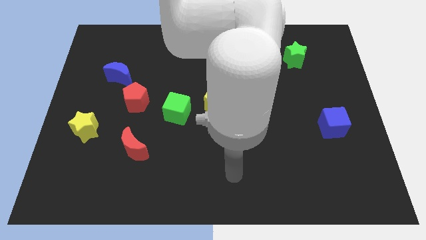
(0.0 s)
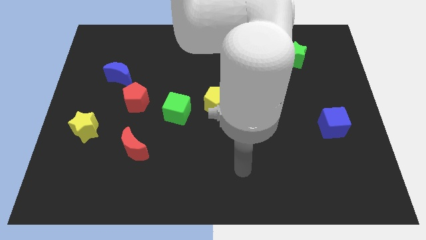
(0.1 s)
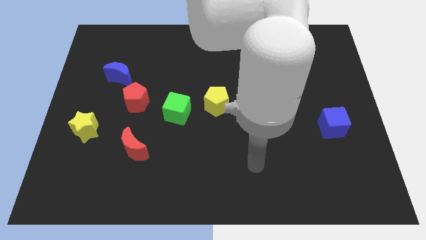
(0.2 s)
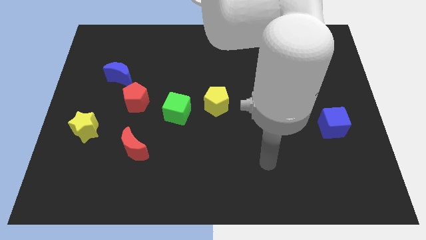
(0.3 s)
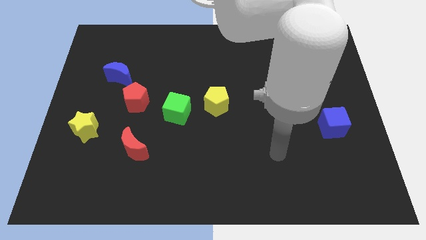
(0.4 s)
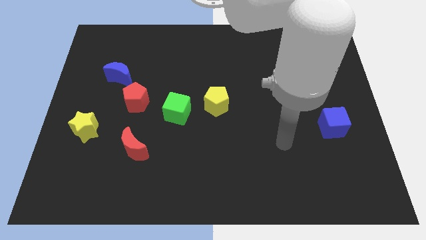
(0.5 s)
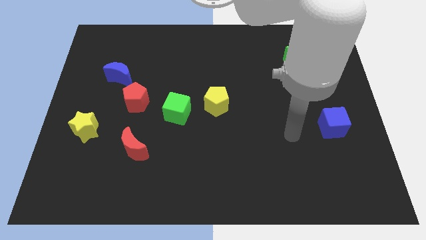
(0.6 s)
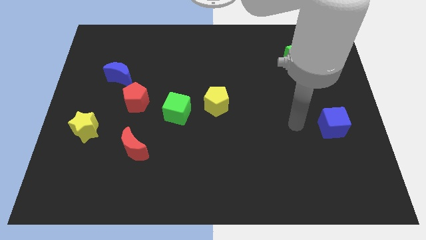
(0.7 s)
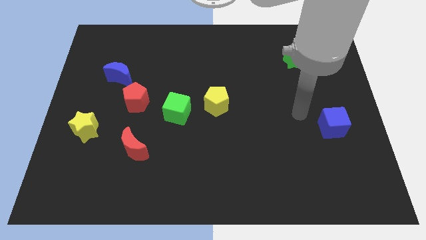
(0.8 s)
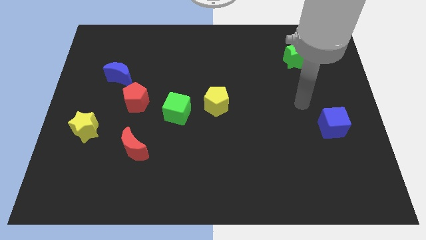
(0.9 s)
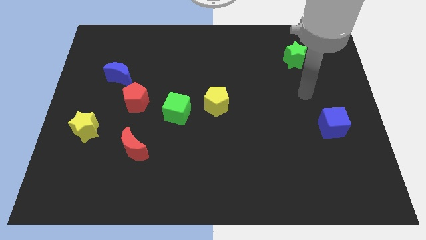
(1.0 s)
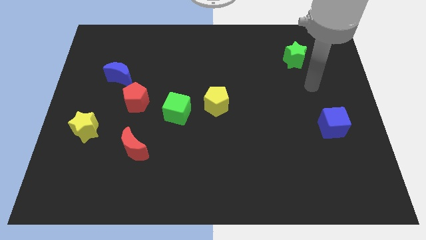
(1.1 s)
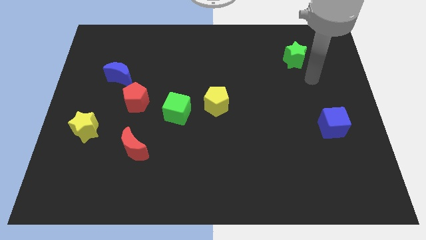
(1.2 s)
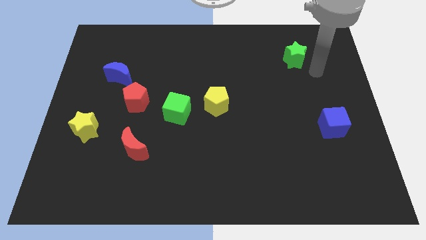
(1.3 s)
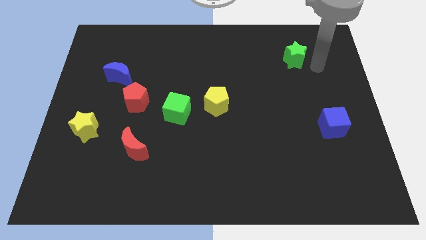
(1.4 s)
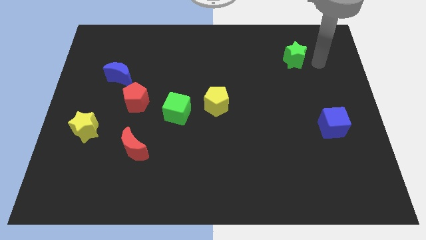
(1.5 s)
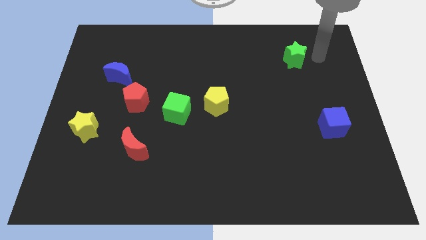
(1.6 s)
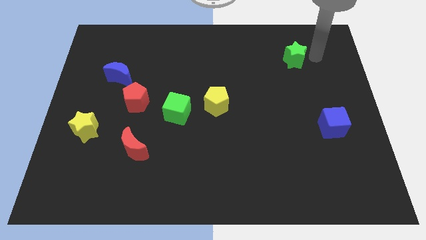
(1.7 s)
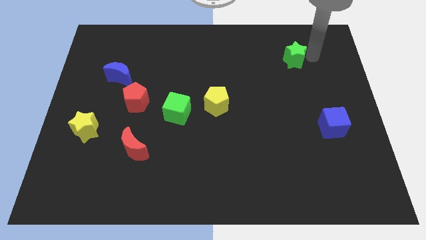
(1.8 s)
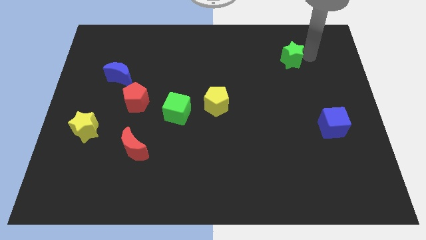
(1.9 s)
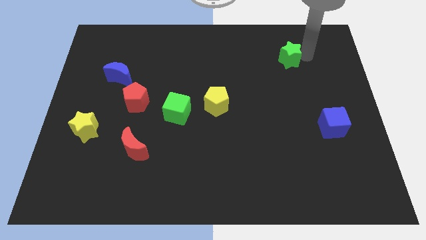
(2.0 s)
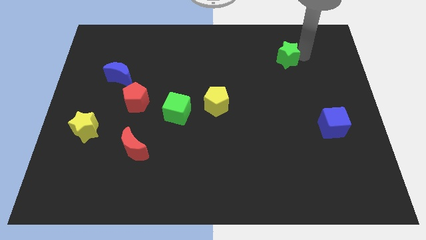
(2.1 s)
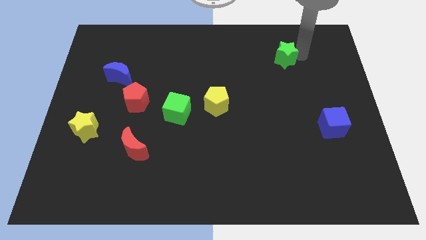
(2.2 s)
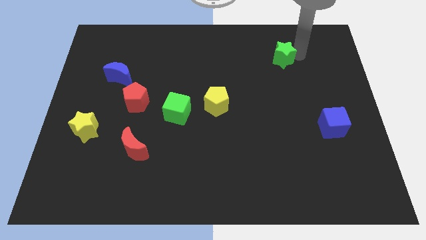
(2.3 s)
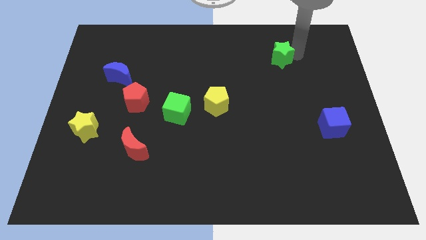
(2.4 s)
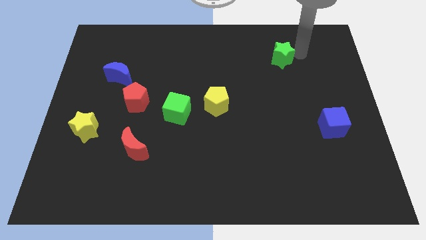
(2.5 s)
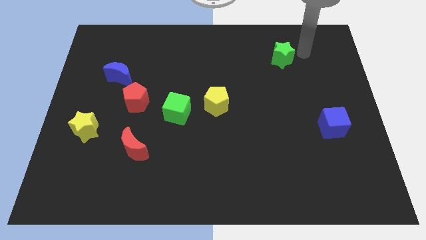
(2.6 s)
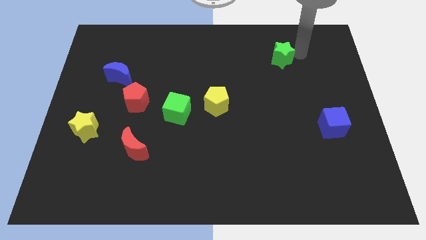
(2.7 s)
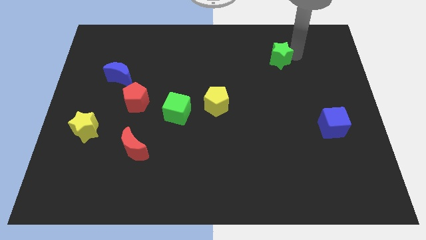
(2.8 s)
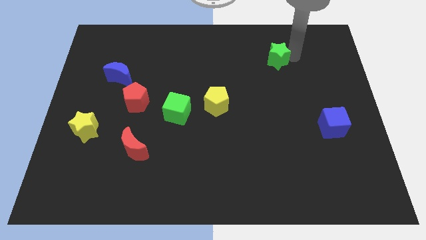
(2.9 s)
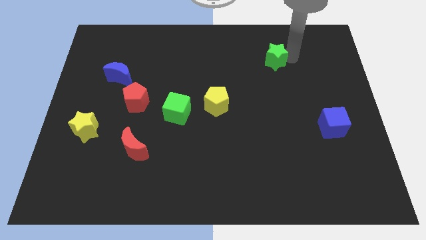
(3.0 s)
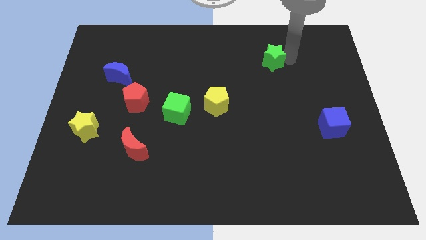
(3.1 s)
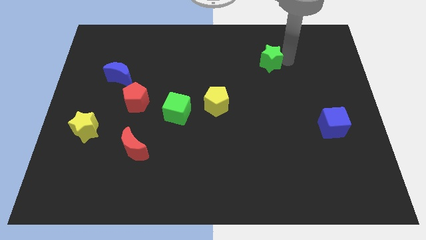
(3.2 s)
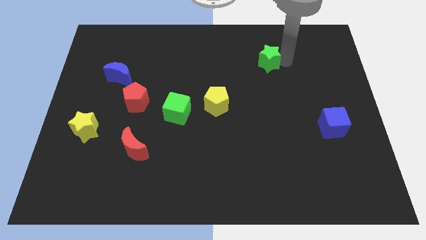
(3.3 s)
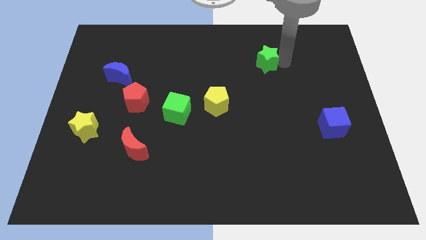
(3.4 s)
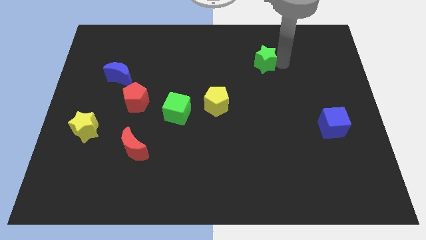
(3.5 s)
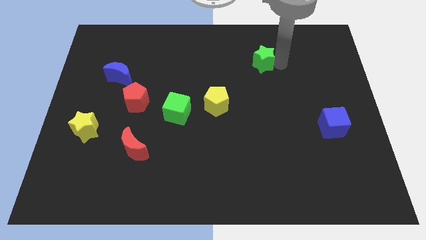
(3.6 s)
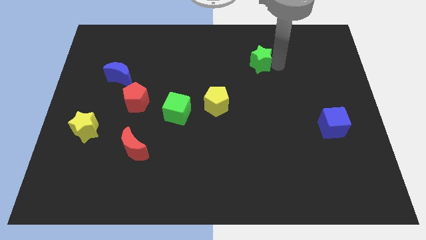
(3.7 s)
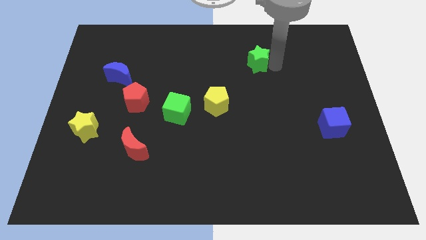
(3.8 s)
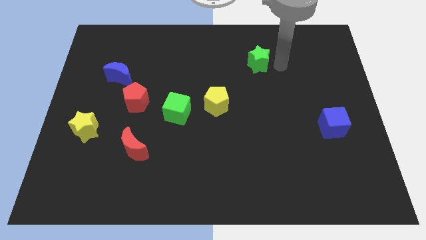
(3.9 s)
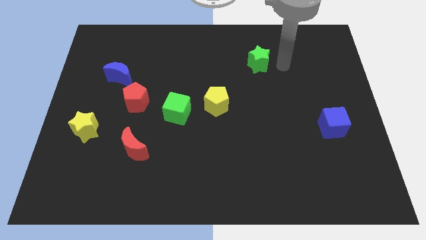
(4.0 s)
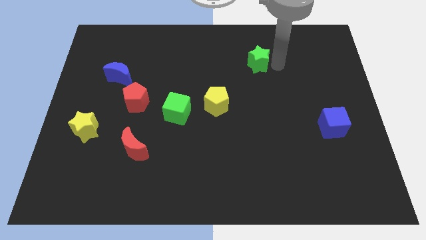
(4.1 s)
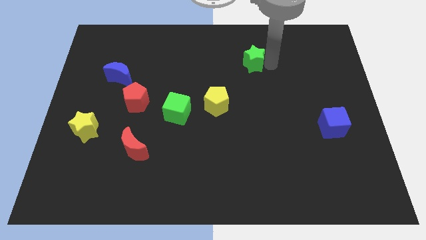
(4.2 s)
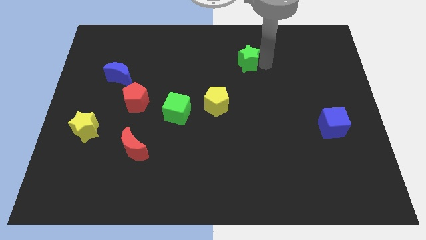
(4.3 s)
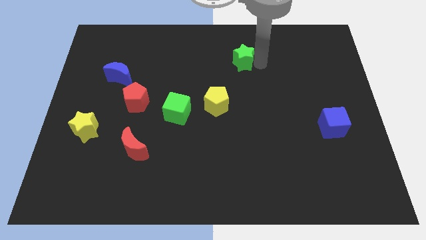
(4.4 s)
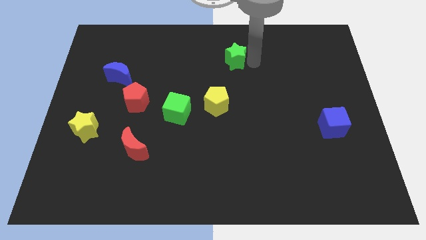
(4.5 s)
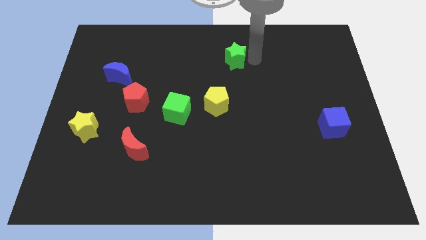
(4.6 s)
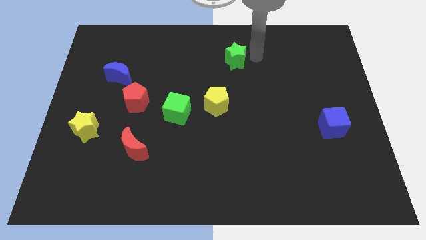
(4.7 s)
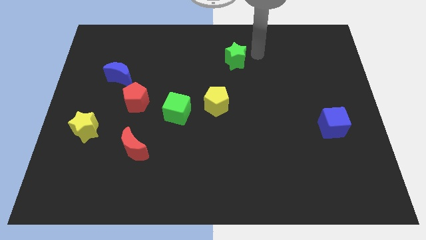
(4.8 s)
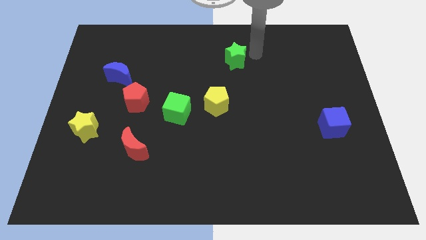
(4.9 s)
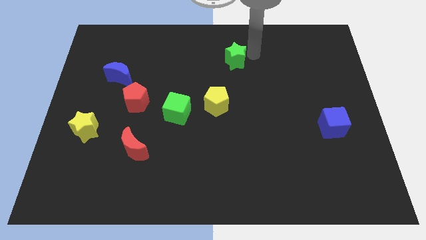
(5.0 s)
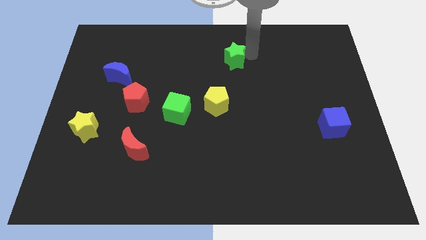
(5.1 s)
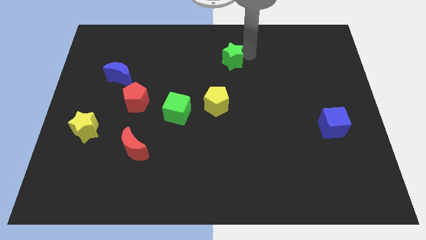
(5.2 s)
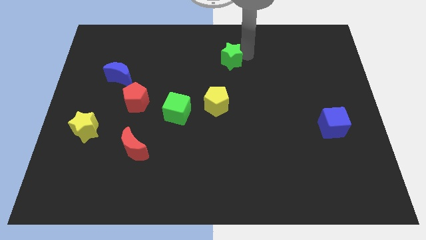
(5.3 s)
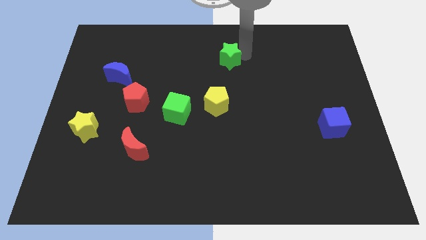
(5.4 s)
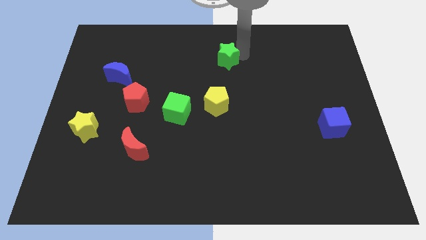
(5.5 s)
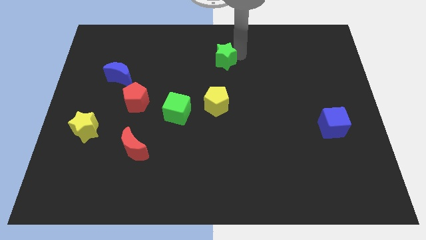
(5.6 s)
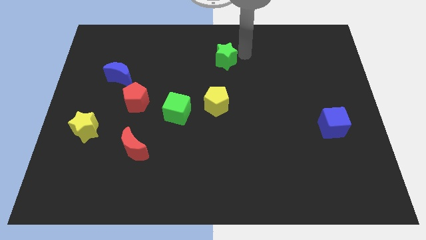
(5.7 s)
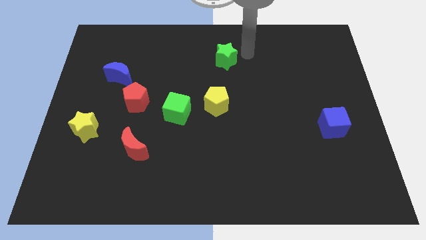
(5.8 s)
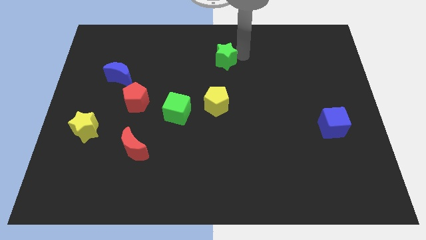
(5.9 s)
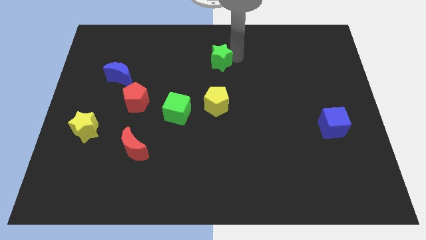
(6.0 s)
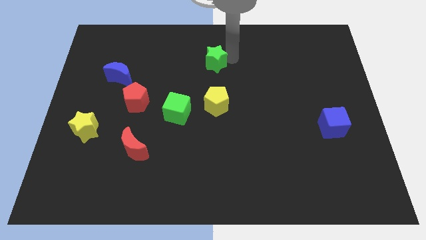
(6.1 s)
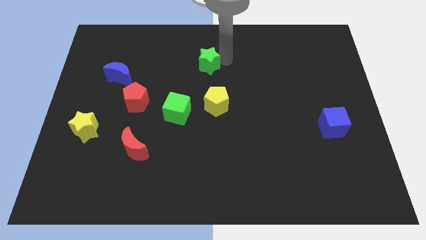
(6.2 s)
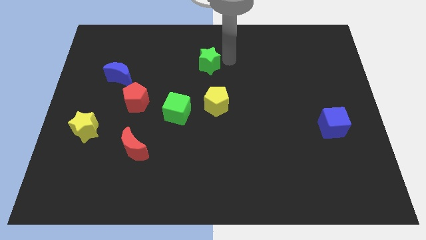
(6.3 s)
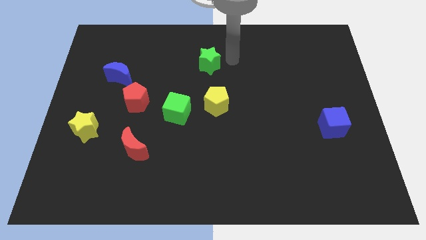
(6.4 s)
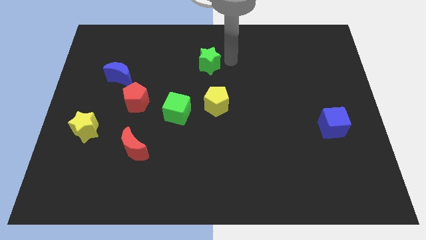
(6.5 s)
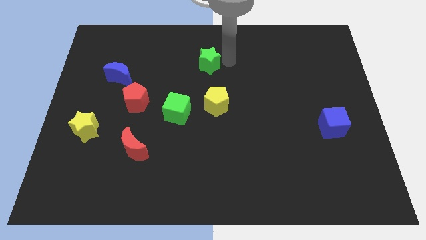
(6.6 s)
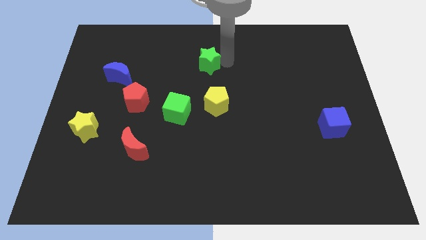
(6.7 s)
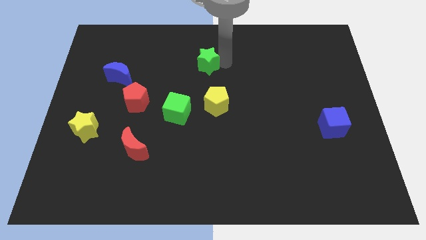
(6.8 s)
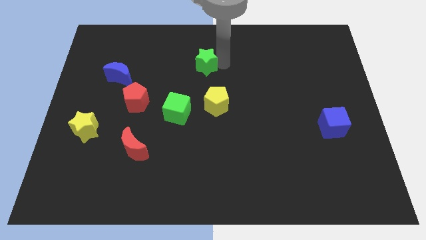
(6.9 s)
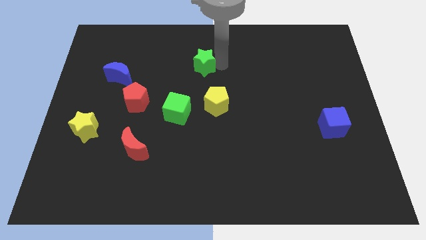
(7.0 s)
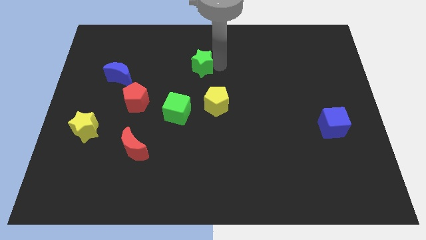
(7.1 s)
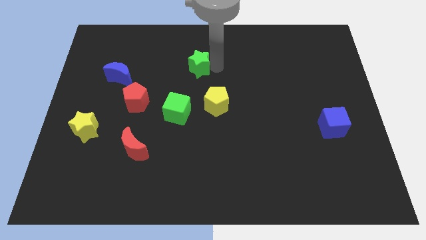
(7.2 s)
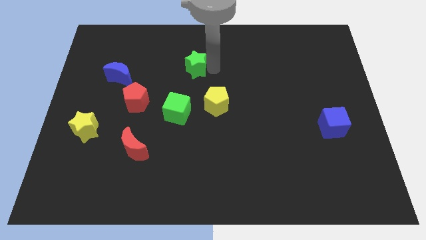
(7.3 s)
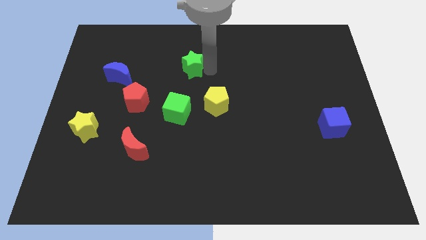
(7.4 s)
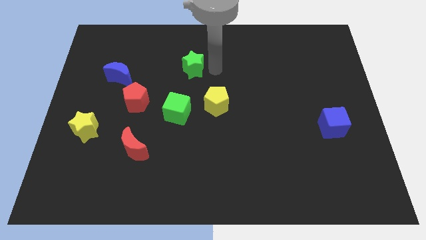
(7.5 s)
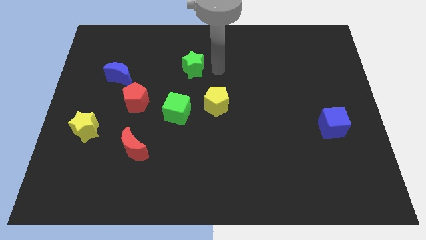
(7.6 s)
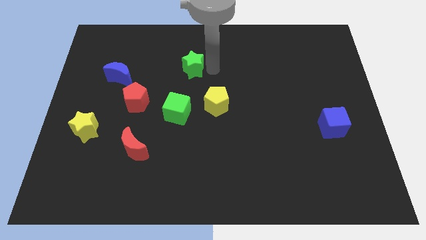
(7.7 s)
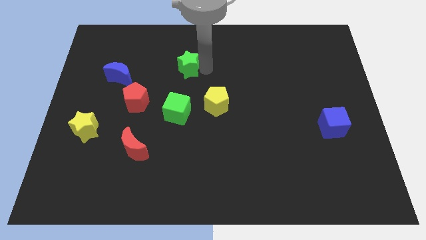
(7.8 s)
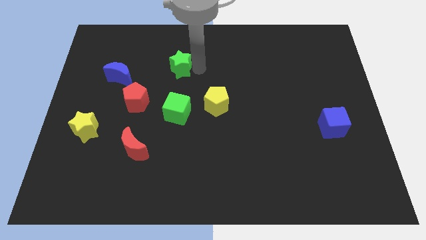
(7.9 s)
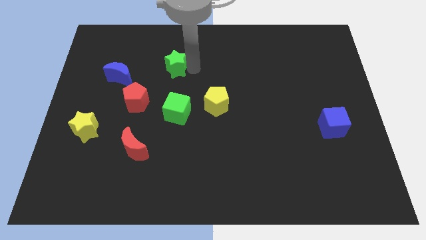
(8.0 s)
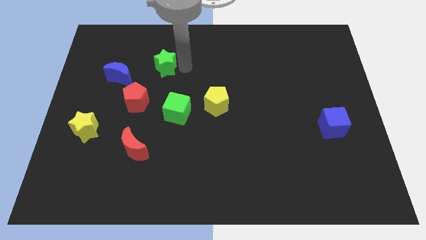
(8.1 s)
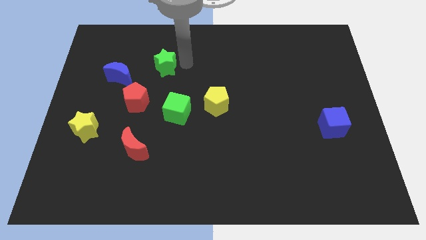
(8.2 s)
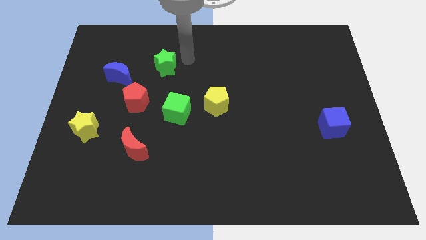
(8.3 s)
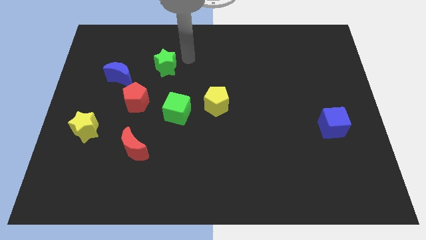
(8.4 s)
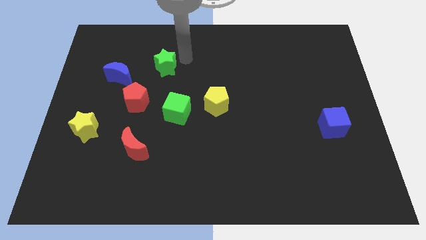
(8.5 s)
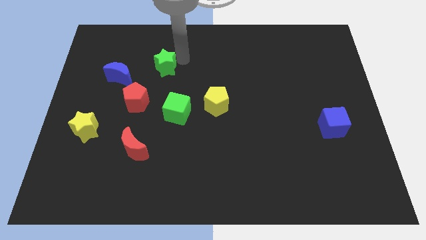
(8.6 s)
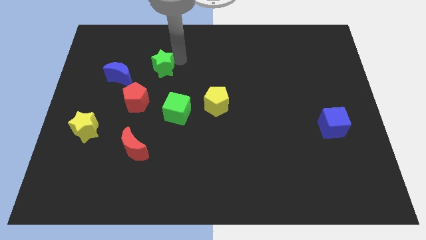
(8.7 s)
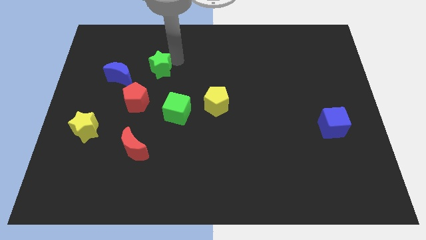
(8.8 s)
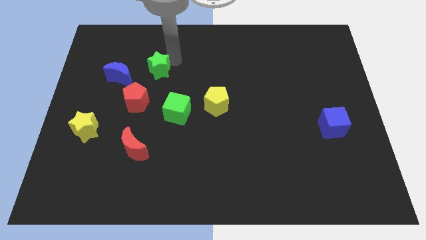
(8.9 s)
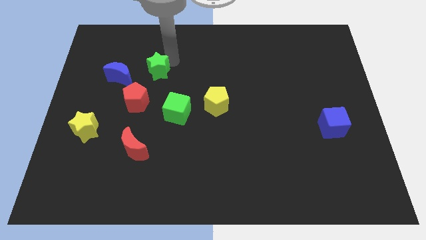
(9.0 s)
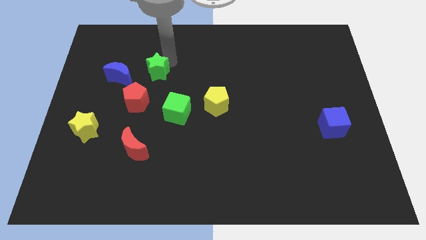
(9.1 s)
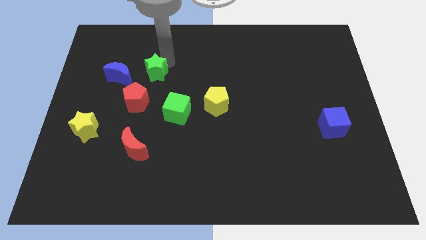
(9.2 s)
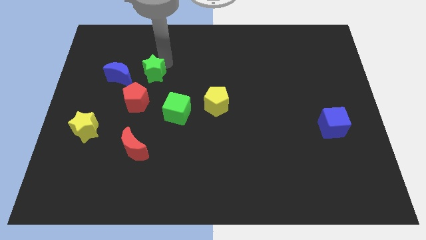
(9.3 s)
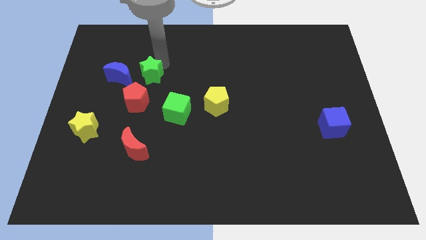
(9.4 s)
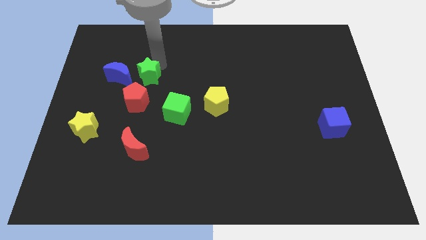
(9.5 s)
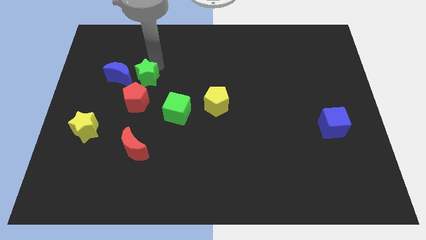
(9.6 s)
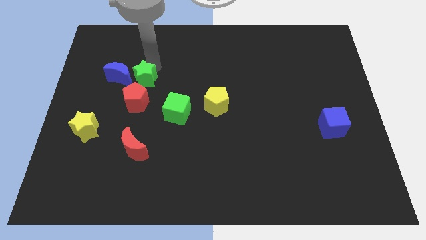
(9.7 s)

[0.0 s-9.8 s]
move the green star next to the blue moon
